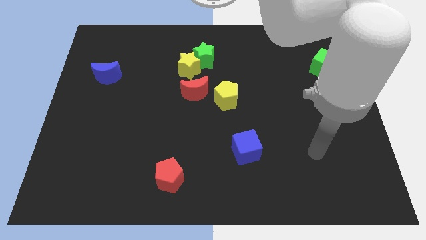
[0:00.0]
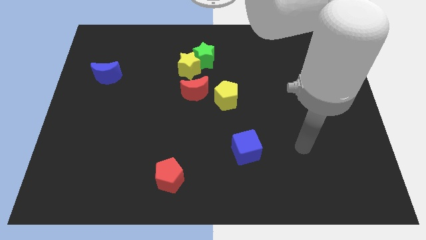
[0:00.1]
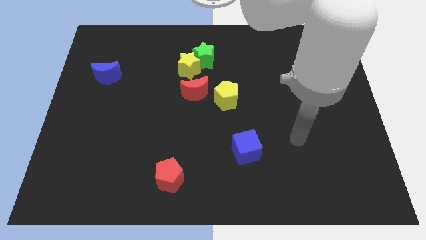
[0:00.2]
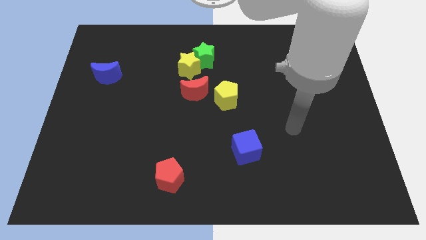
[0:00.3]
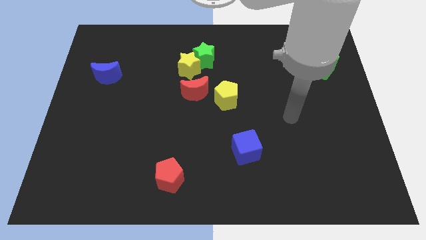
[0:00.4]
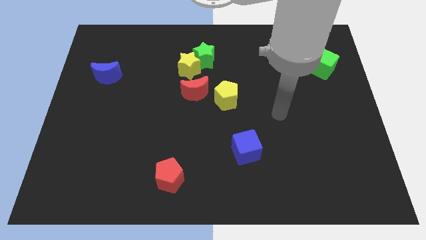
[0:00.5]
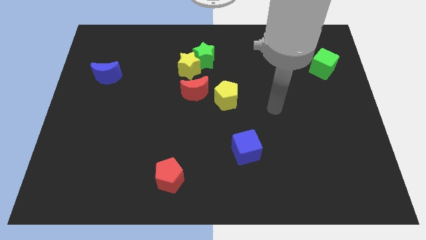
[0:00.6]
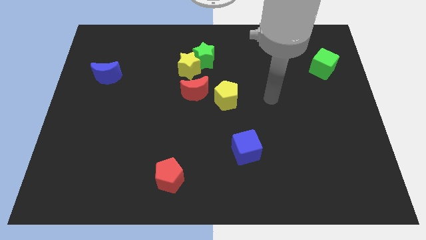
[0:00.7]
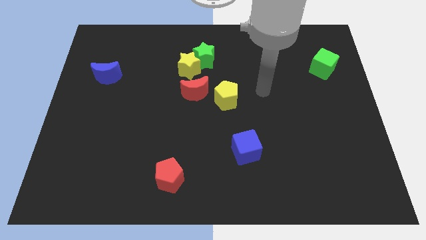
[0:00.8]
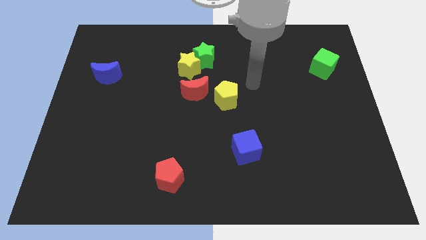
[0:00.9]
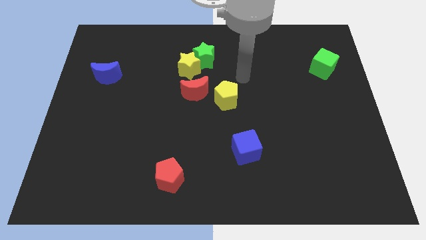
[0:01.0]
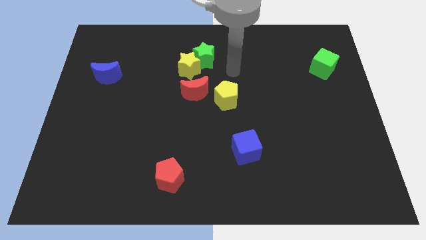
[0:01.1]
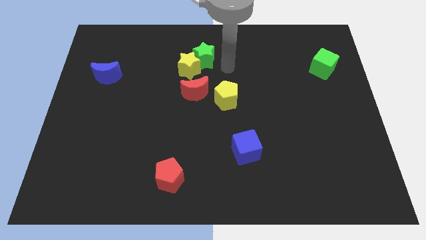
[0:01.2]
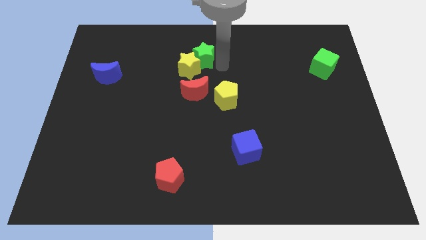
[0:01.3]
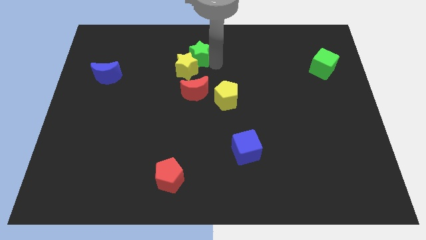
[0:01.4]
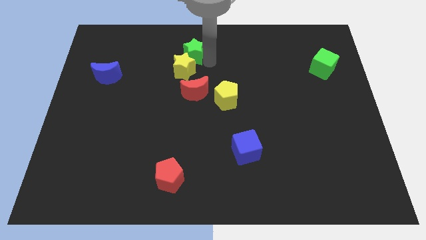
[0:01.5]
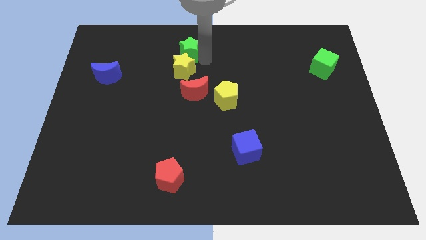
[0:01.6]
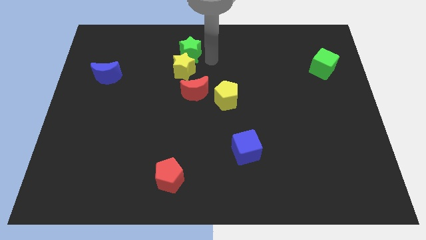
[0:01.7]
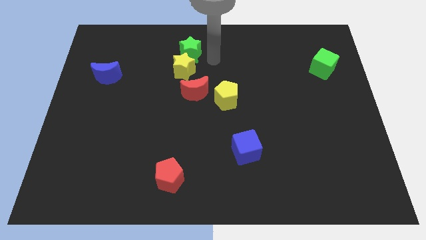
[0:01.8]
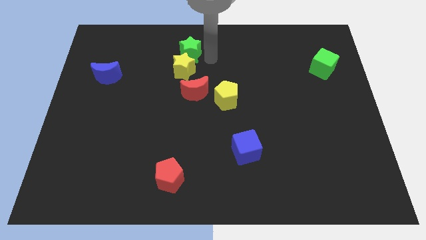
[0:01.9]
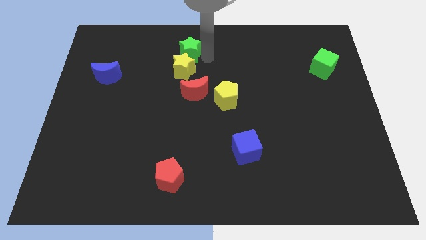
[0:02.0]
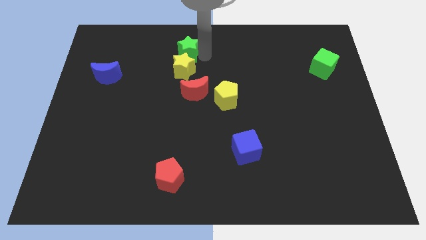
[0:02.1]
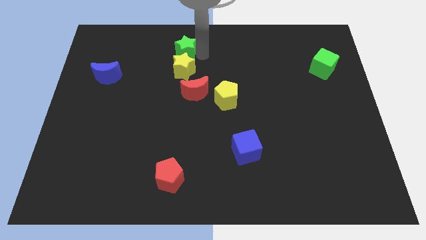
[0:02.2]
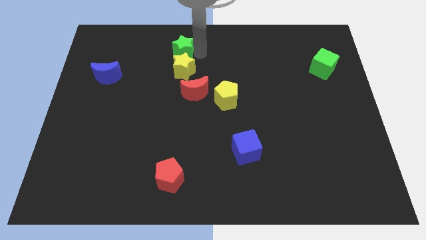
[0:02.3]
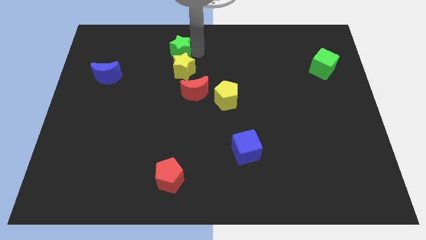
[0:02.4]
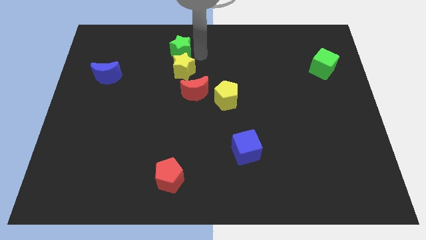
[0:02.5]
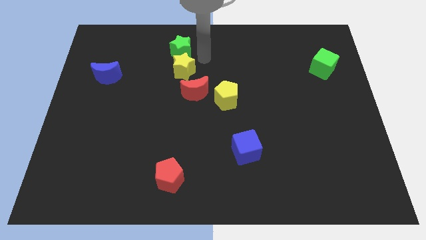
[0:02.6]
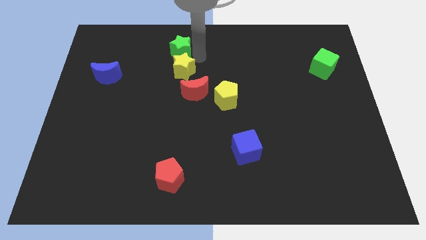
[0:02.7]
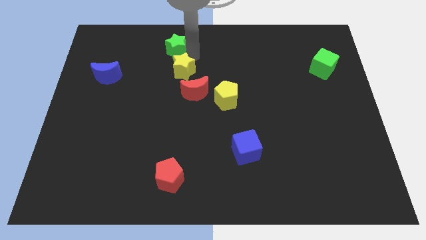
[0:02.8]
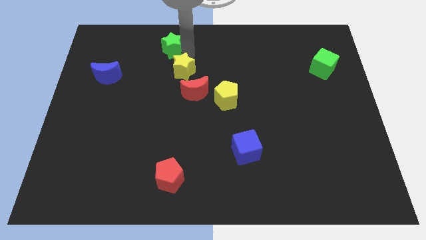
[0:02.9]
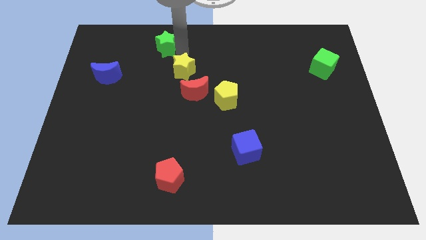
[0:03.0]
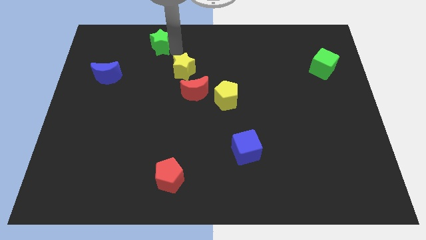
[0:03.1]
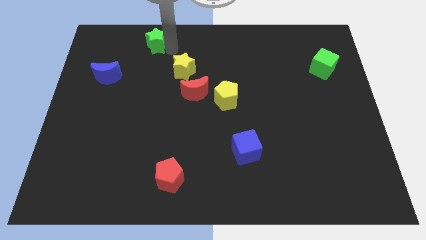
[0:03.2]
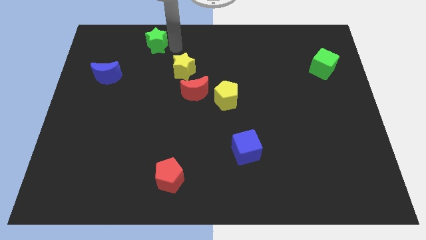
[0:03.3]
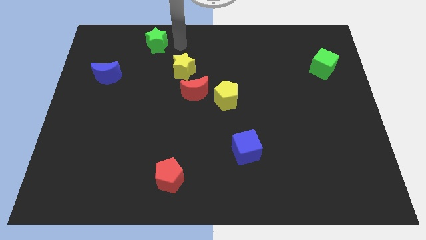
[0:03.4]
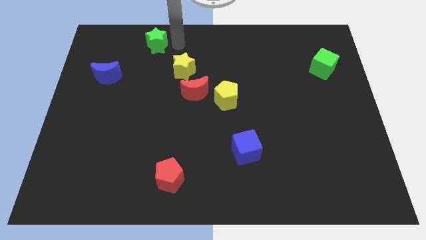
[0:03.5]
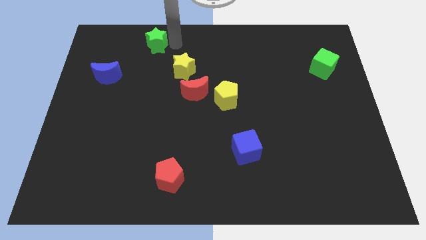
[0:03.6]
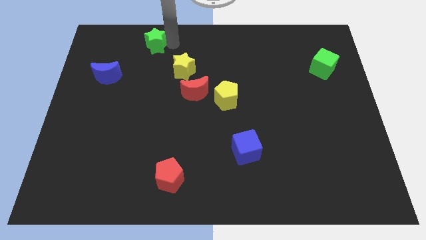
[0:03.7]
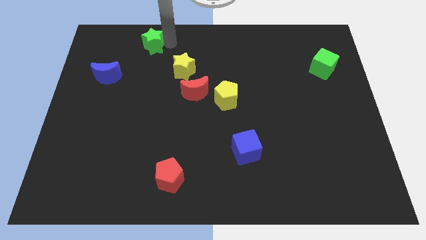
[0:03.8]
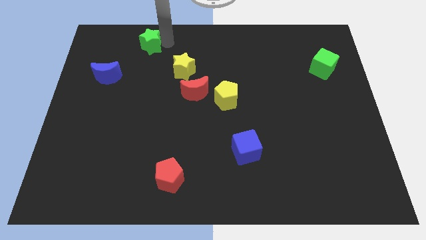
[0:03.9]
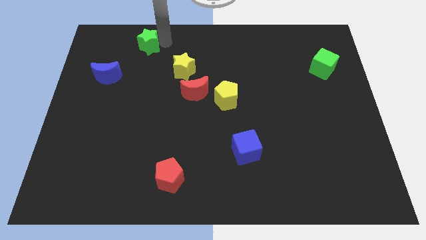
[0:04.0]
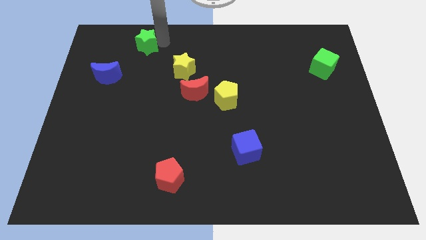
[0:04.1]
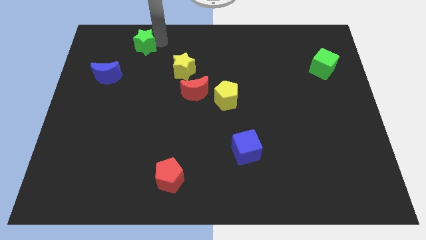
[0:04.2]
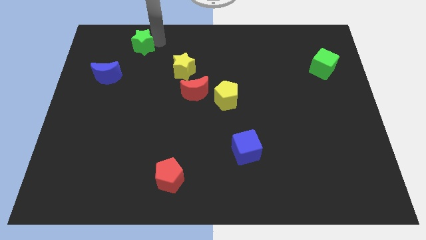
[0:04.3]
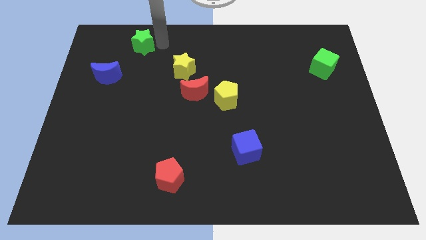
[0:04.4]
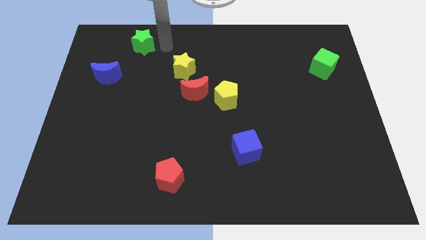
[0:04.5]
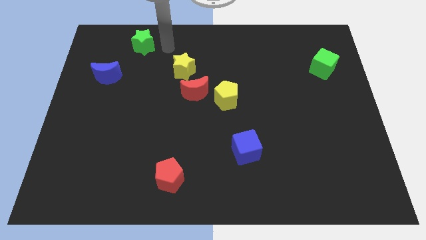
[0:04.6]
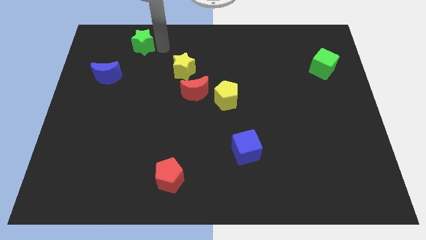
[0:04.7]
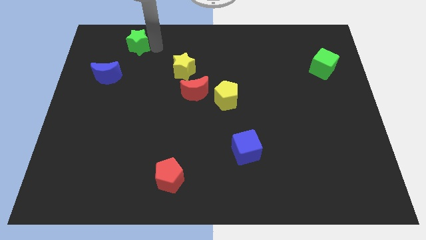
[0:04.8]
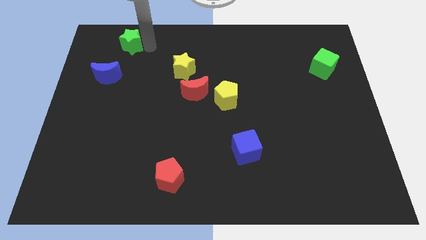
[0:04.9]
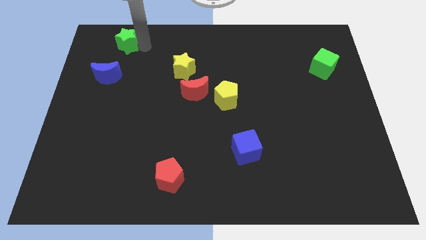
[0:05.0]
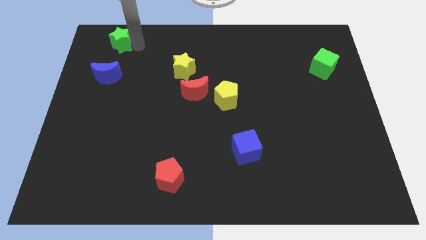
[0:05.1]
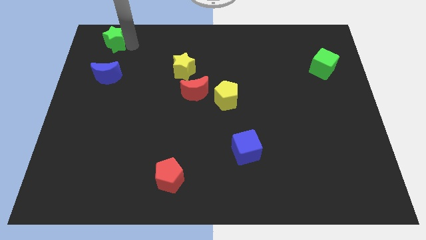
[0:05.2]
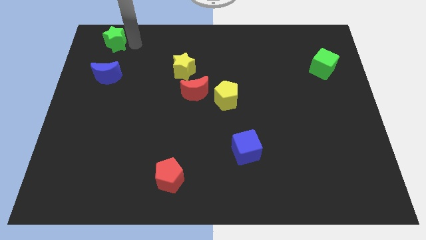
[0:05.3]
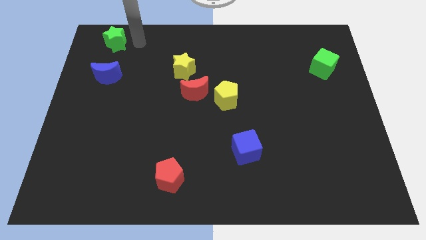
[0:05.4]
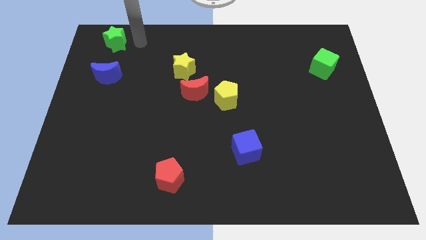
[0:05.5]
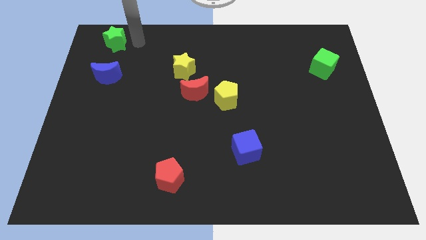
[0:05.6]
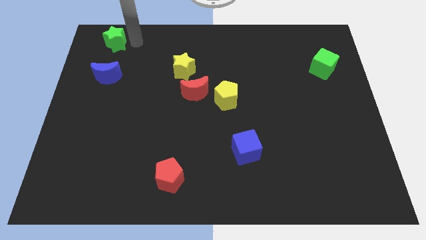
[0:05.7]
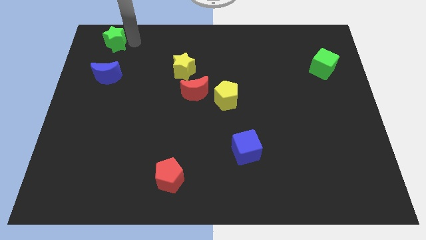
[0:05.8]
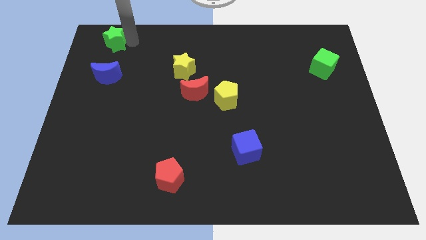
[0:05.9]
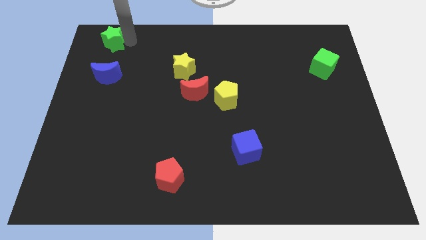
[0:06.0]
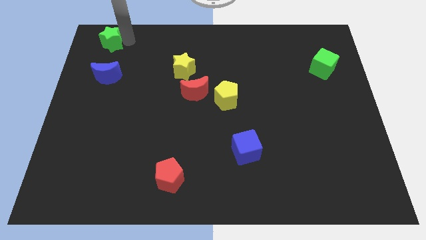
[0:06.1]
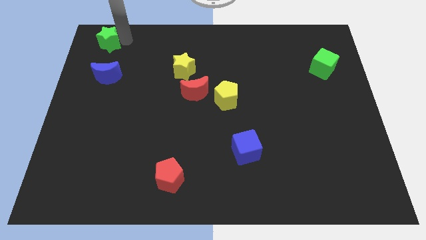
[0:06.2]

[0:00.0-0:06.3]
put the green star to the upper left corner

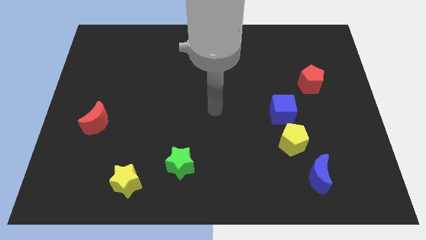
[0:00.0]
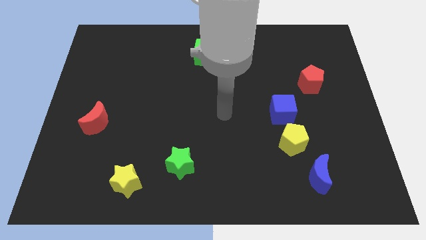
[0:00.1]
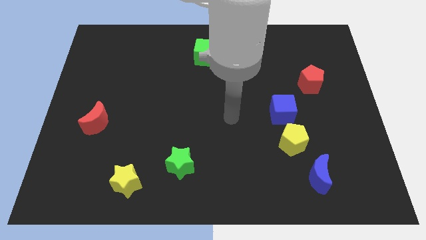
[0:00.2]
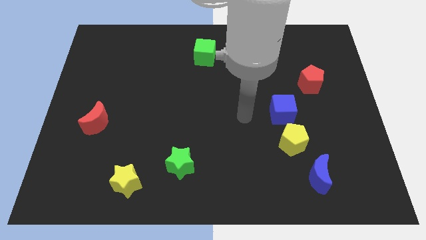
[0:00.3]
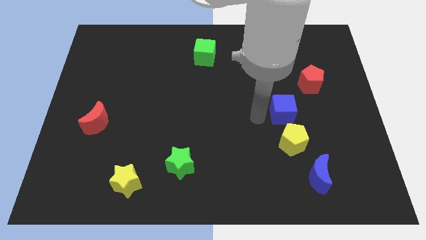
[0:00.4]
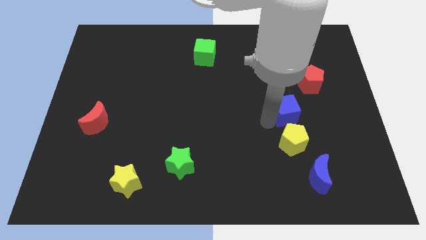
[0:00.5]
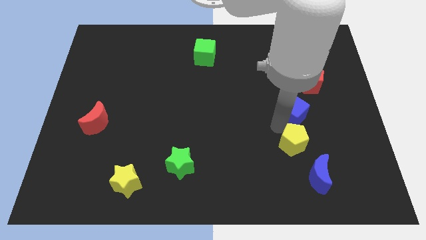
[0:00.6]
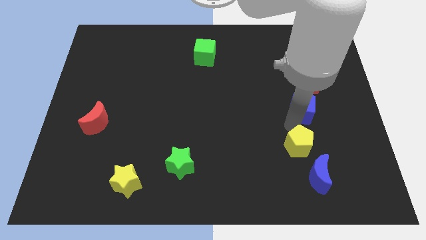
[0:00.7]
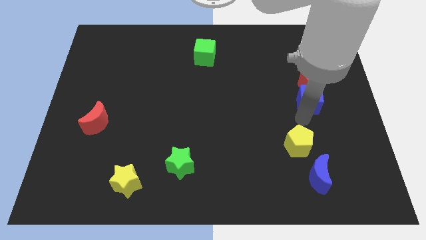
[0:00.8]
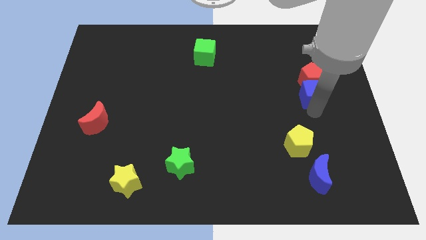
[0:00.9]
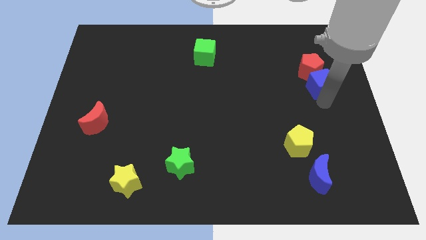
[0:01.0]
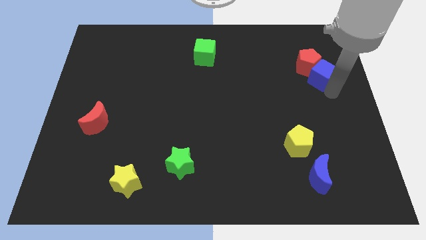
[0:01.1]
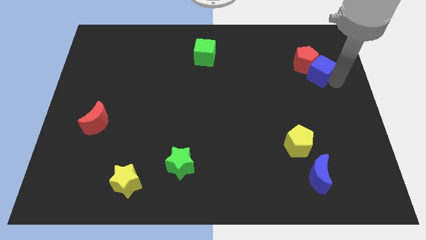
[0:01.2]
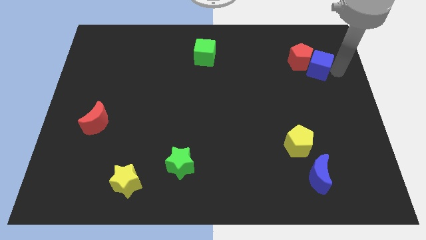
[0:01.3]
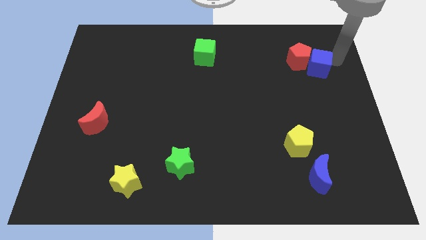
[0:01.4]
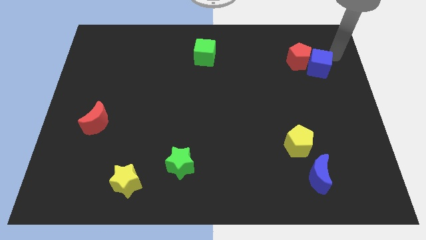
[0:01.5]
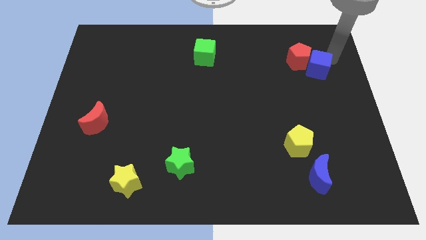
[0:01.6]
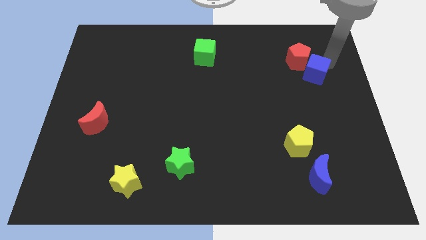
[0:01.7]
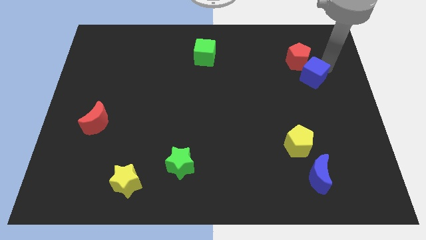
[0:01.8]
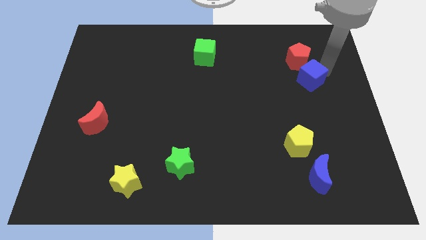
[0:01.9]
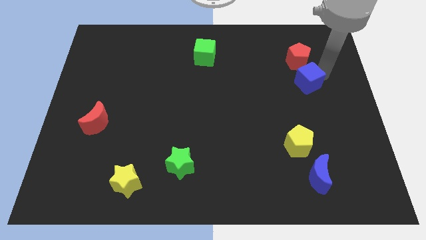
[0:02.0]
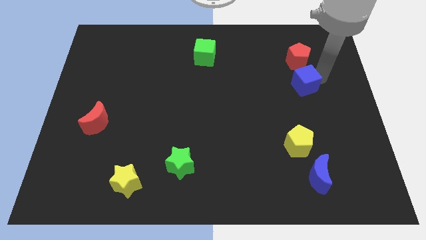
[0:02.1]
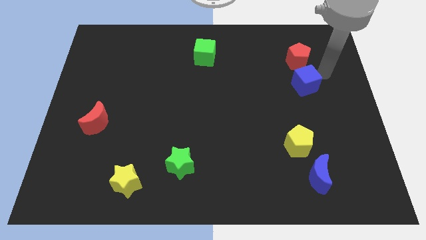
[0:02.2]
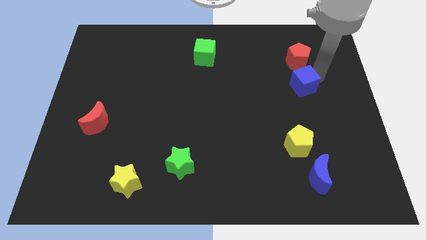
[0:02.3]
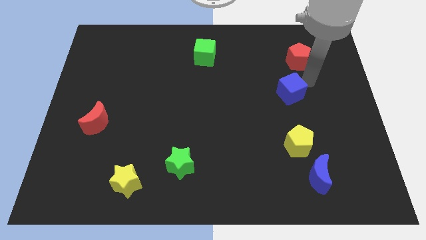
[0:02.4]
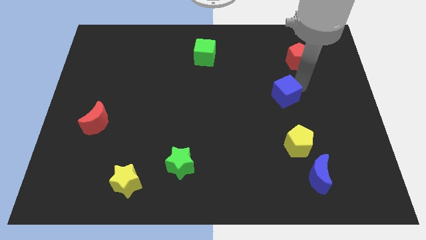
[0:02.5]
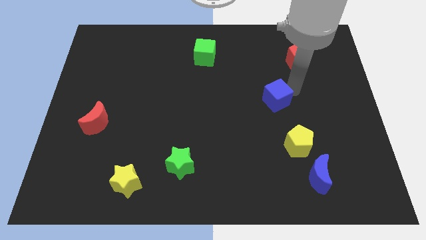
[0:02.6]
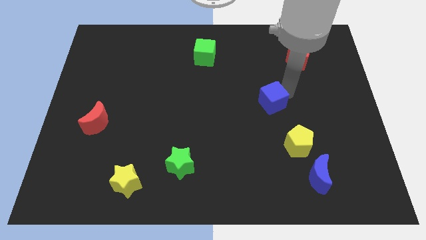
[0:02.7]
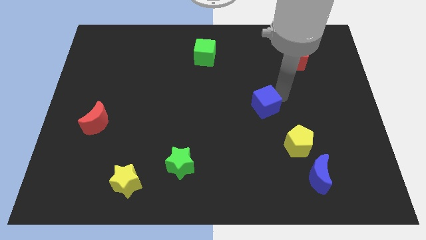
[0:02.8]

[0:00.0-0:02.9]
push the blue cube to the center of the board
